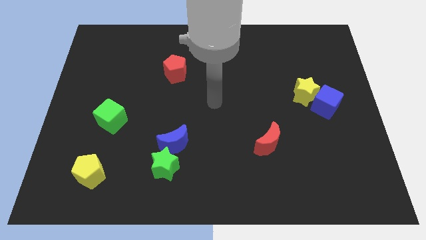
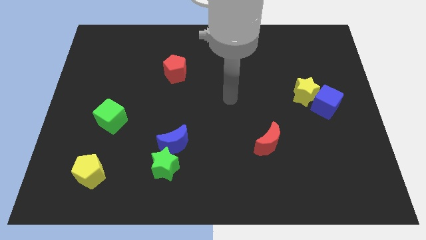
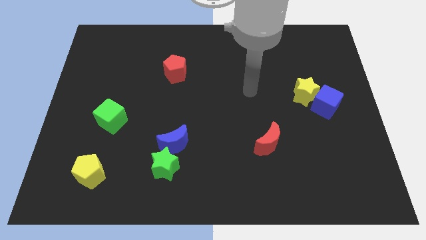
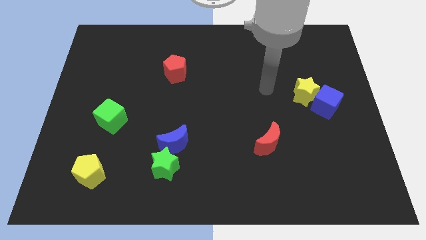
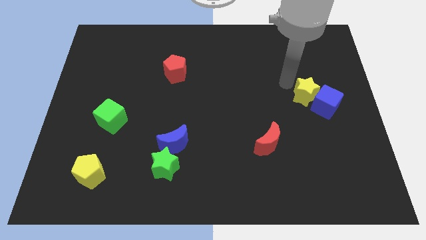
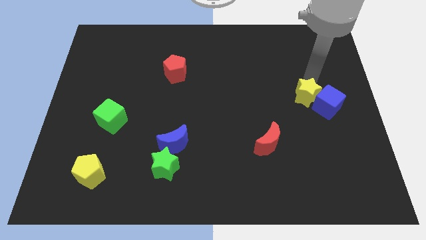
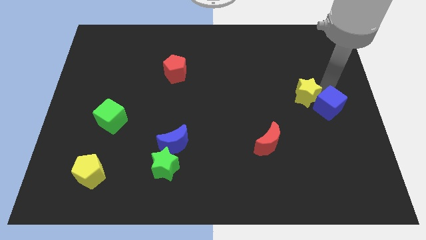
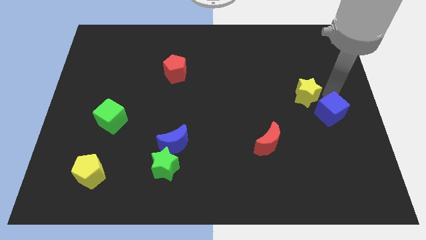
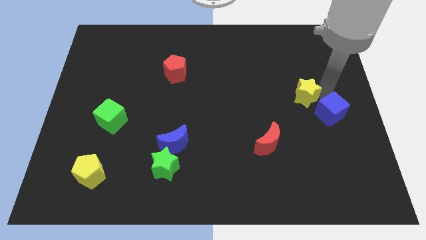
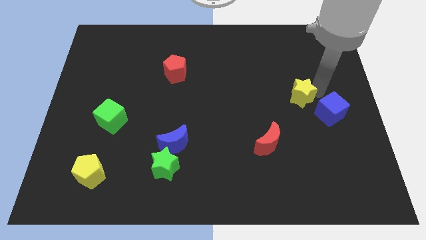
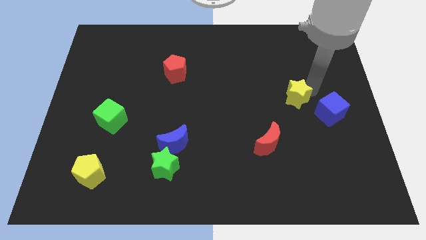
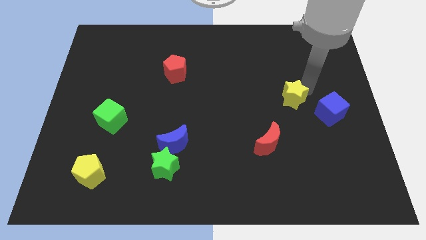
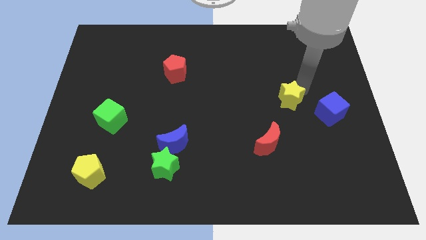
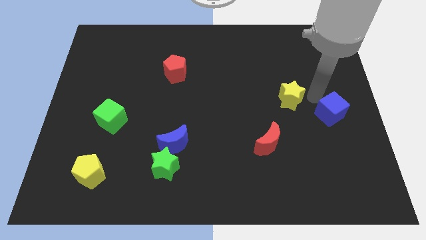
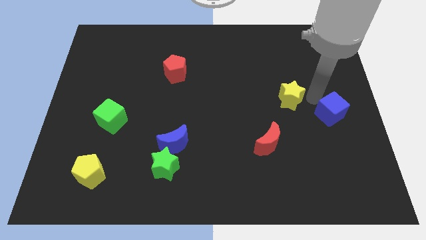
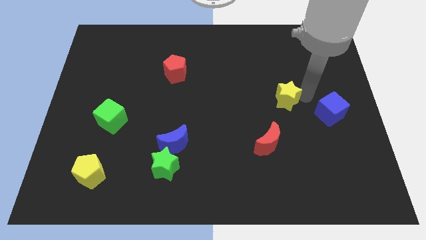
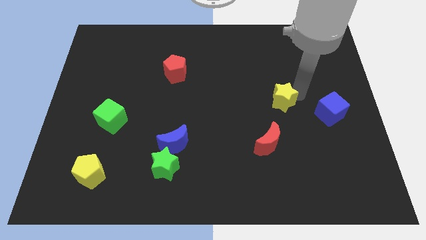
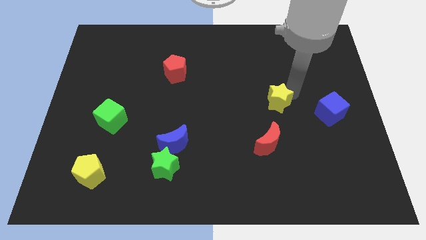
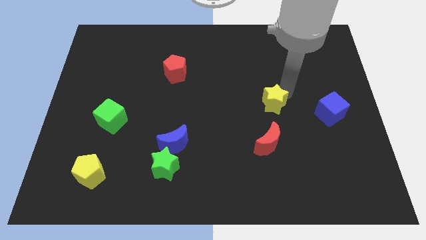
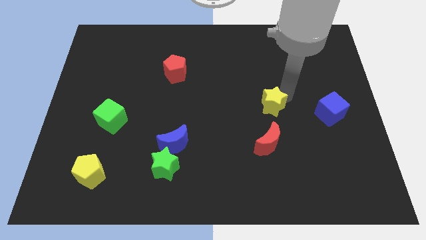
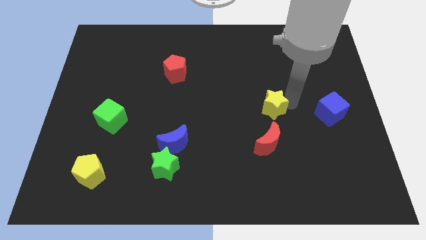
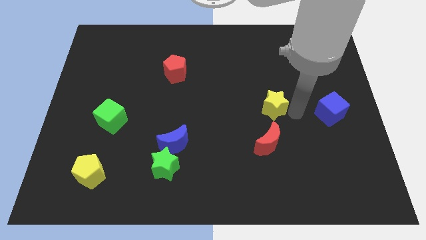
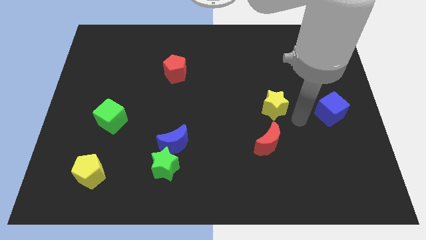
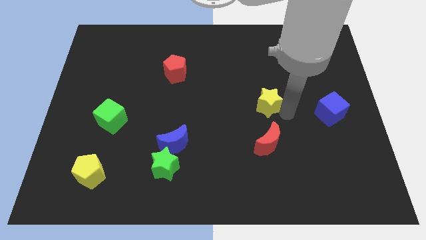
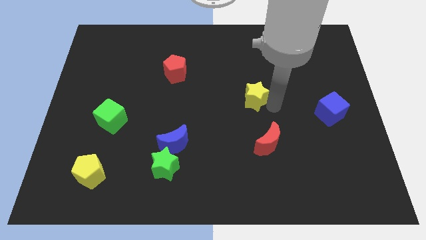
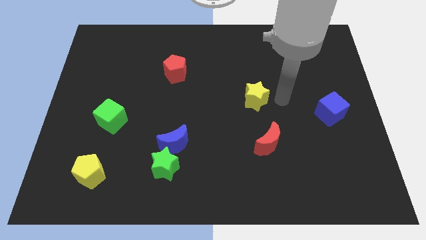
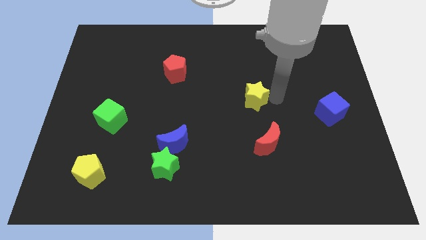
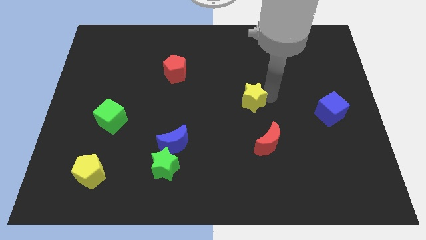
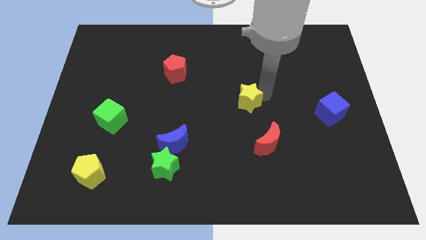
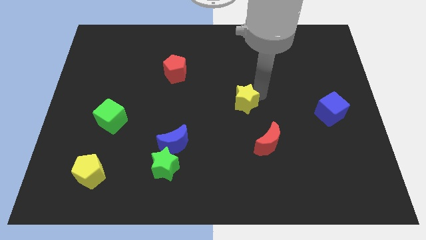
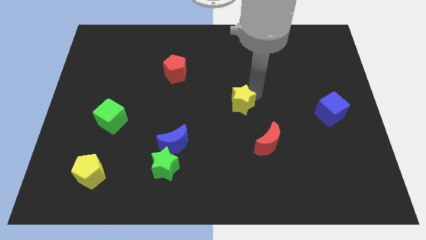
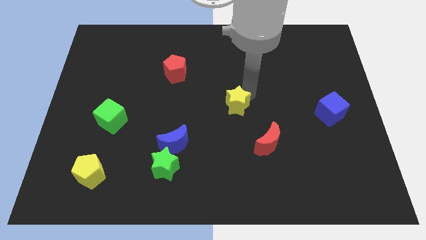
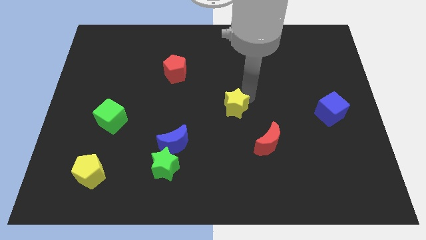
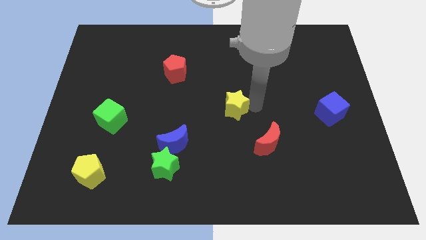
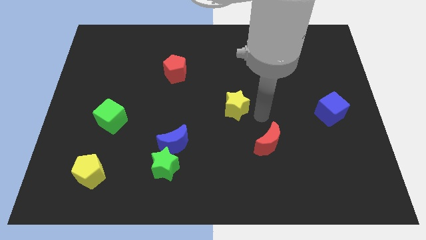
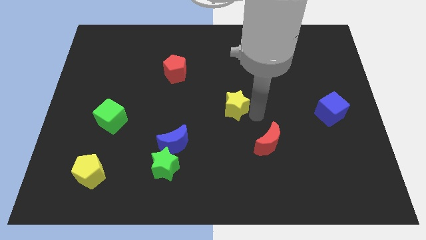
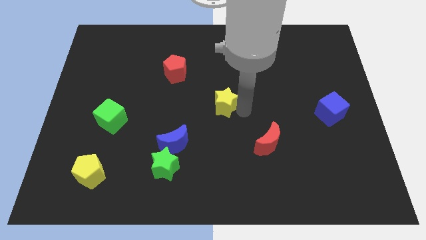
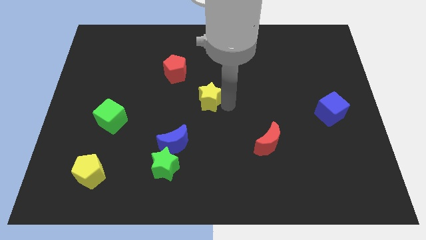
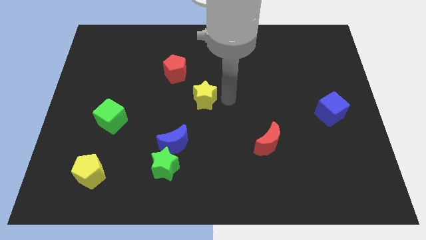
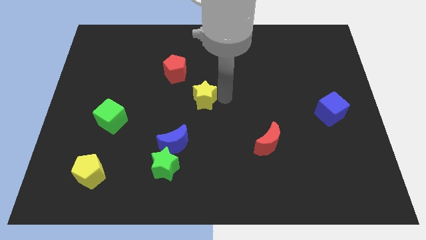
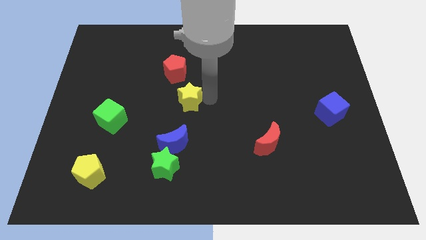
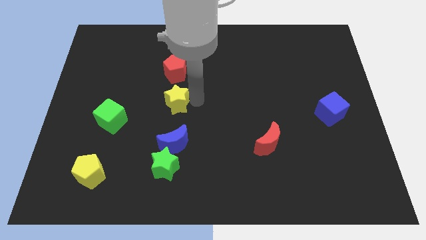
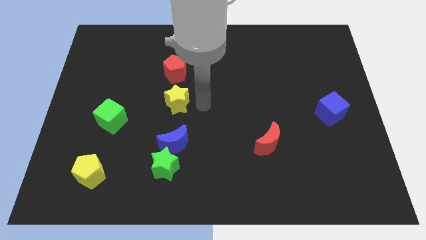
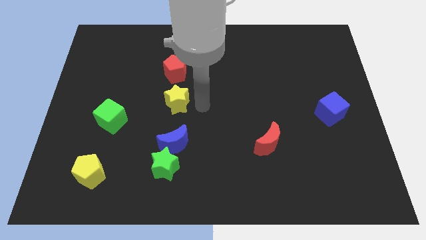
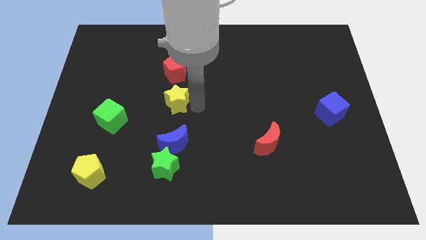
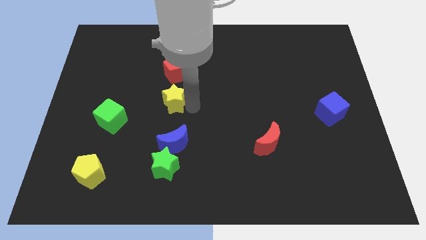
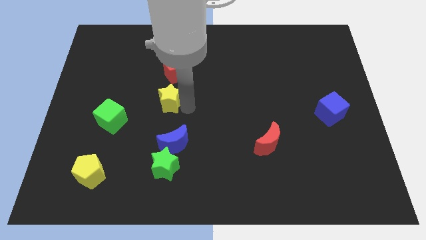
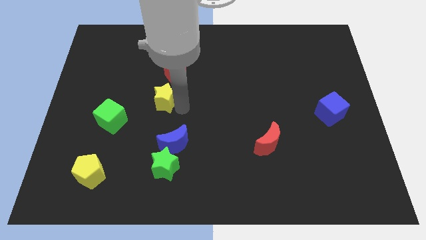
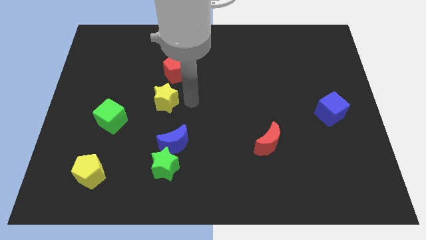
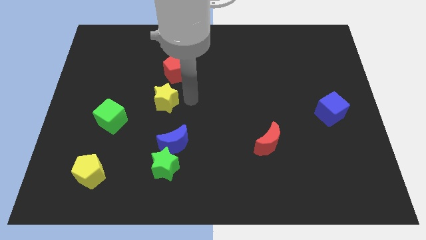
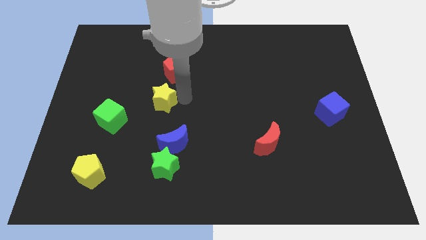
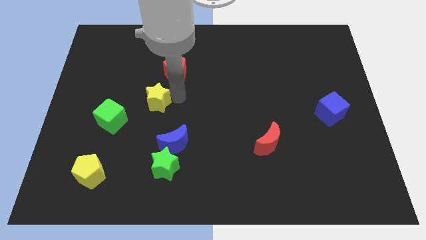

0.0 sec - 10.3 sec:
push the yellow star to the top right of the green cube

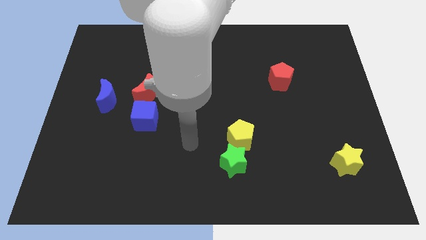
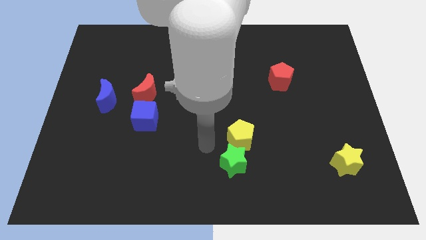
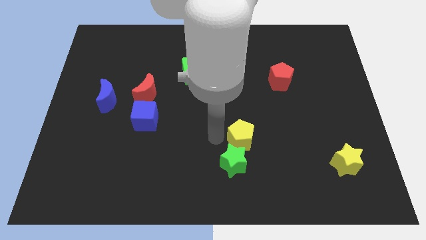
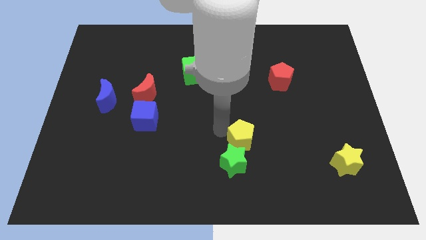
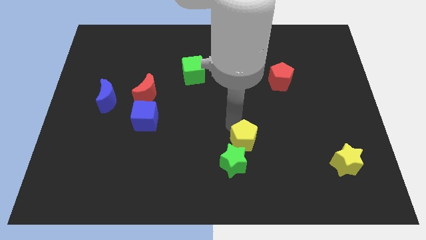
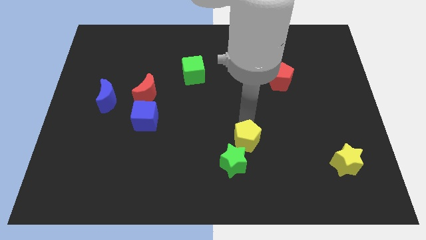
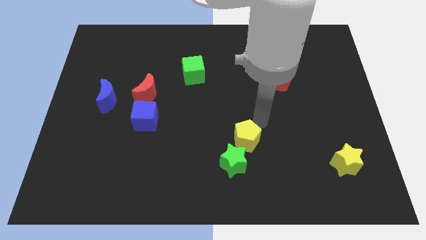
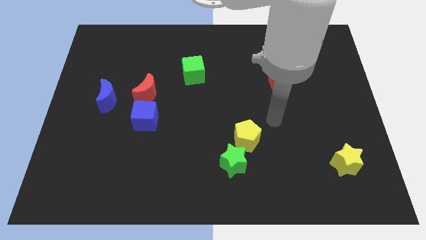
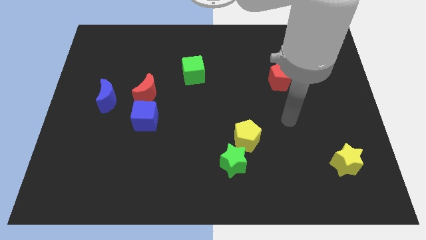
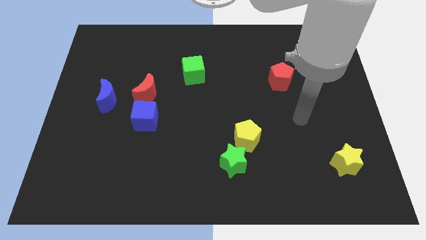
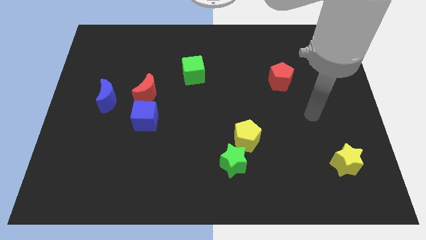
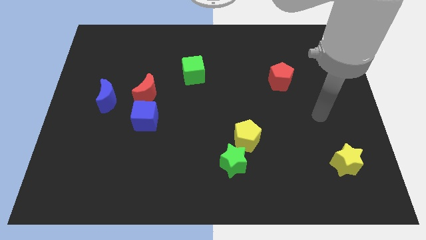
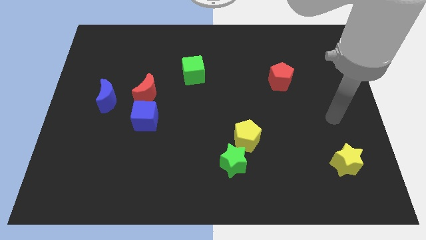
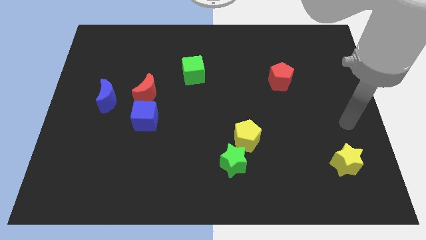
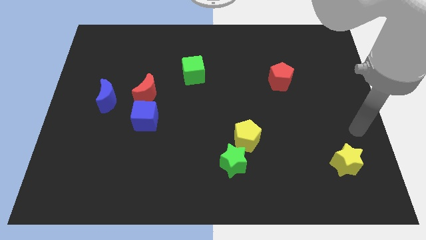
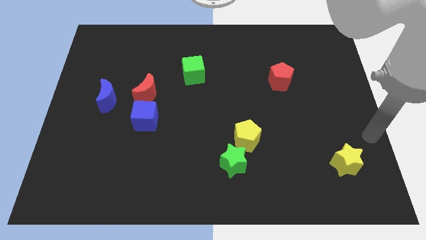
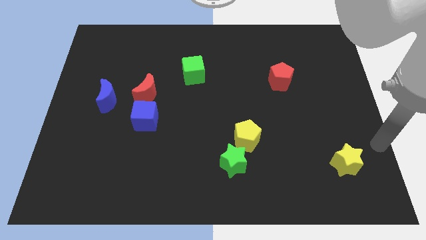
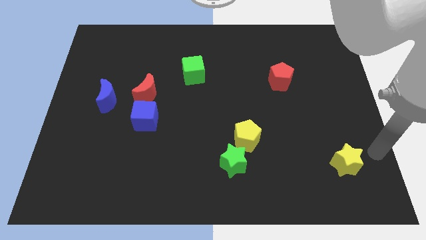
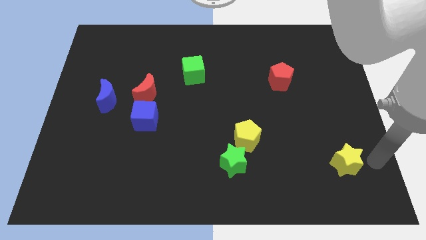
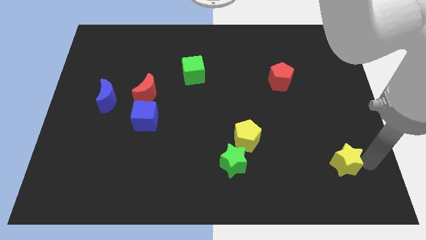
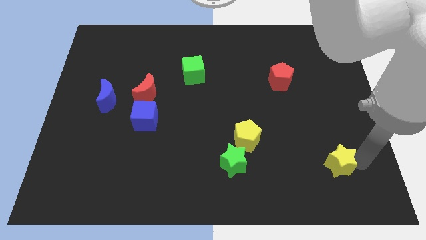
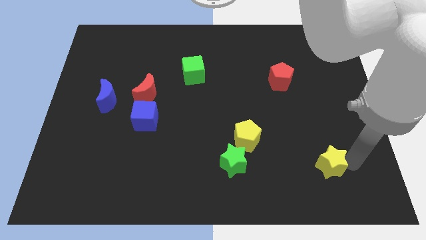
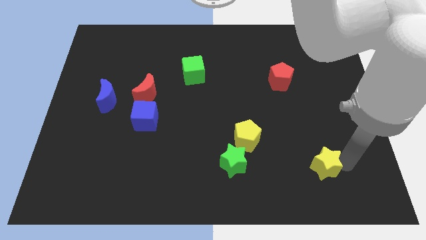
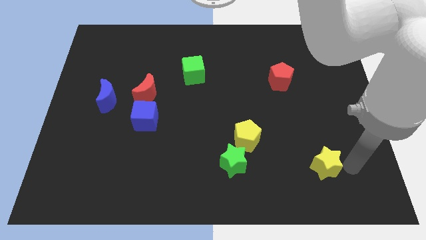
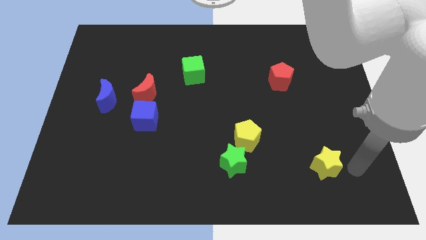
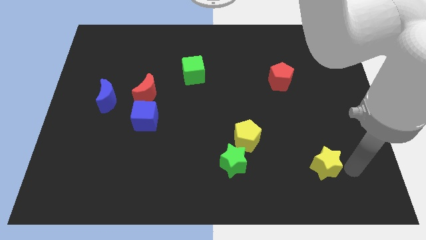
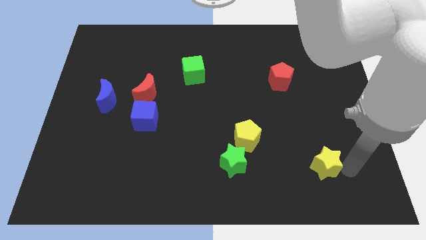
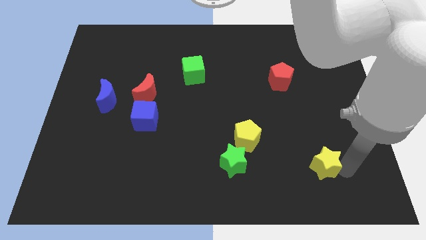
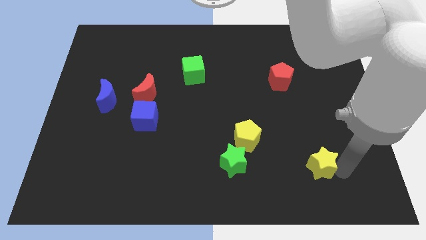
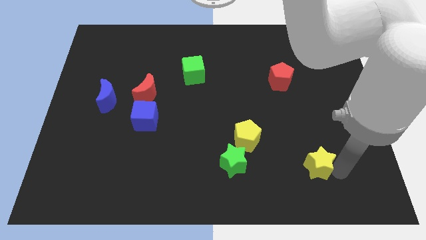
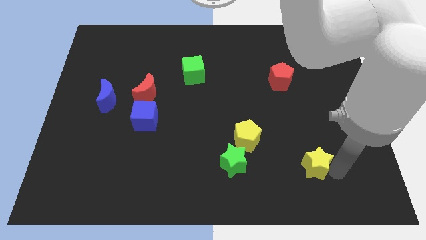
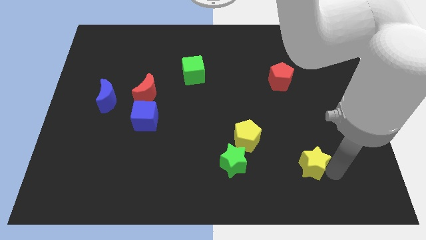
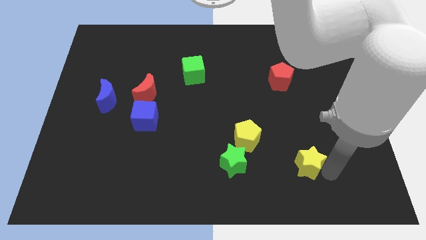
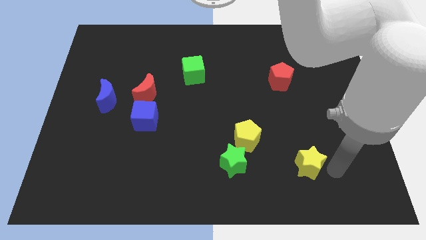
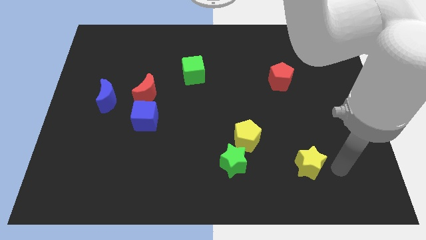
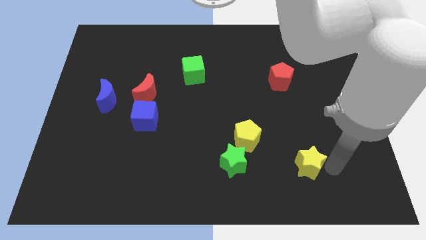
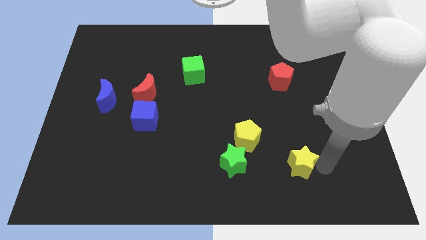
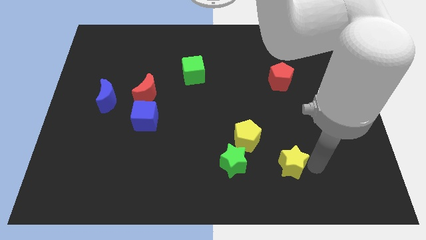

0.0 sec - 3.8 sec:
put the yellow star to the bottom right of the yellow pentagon
